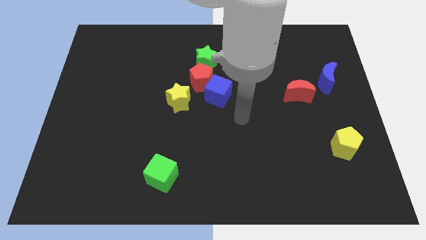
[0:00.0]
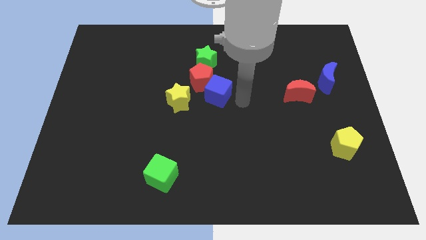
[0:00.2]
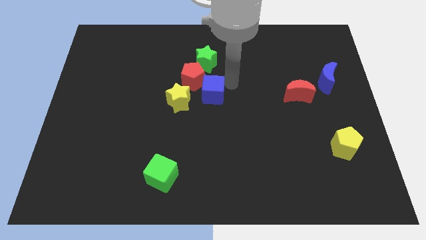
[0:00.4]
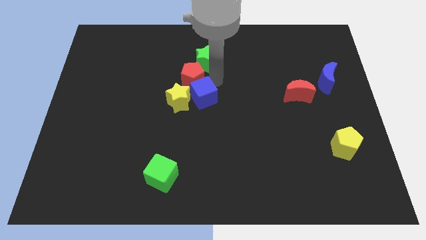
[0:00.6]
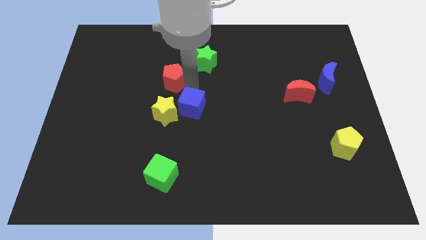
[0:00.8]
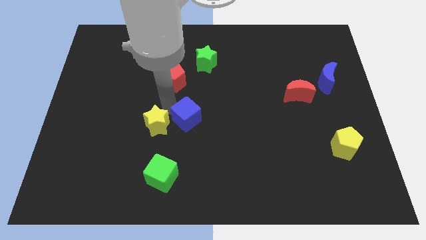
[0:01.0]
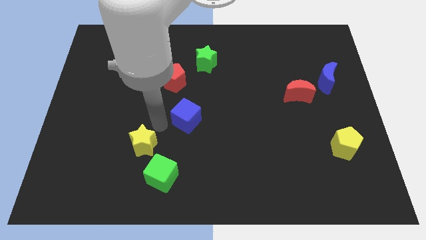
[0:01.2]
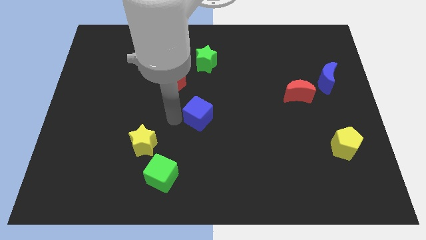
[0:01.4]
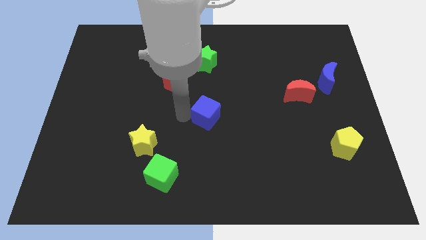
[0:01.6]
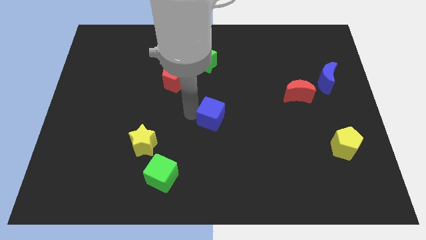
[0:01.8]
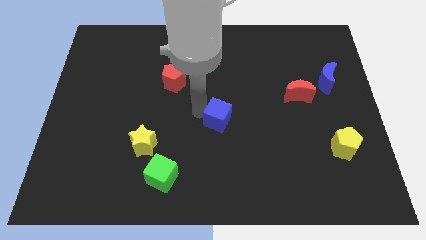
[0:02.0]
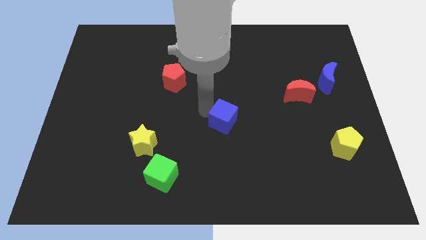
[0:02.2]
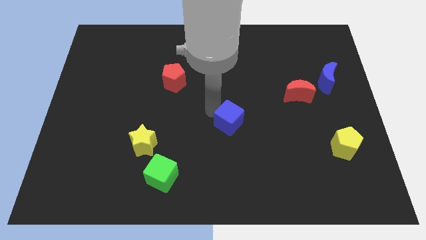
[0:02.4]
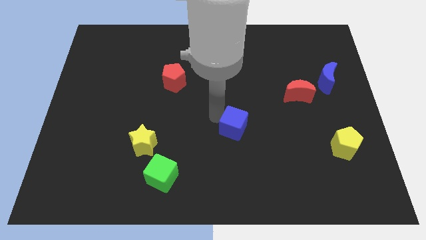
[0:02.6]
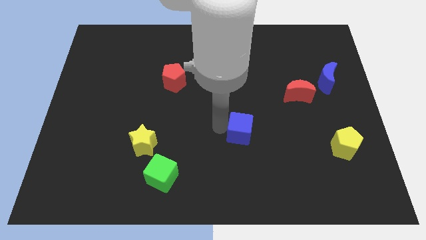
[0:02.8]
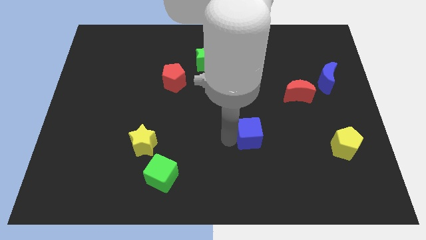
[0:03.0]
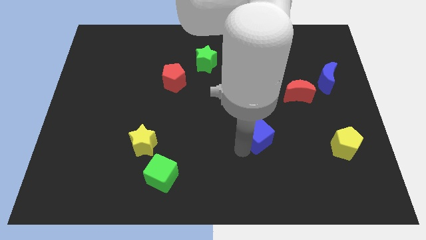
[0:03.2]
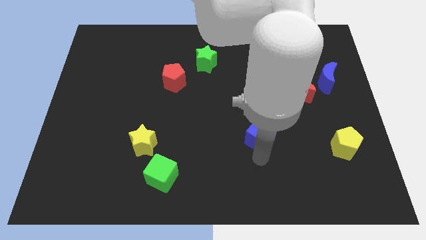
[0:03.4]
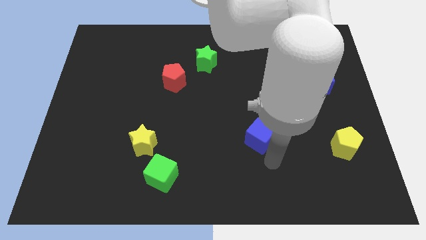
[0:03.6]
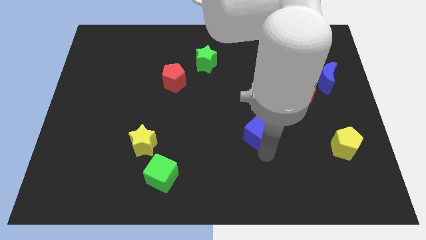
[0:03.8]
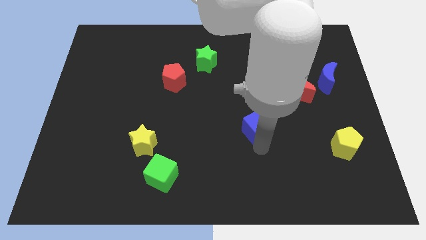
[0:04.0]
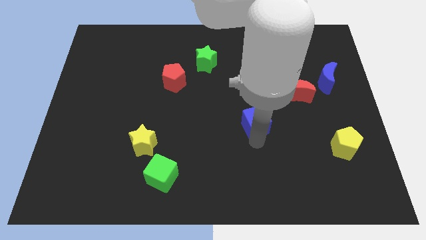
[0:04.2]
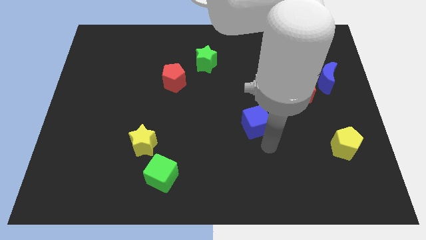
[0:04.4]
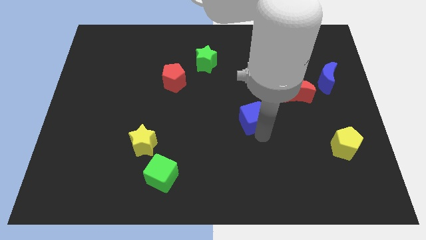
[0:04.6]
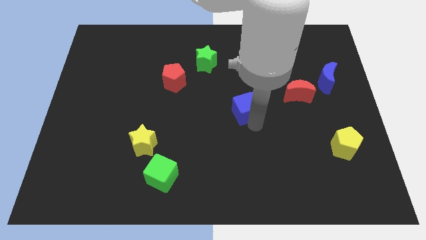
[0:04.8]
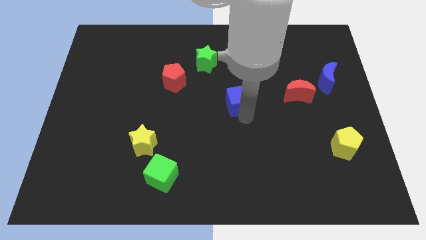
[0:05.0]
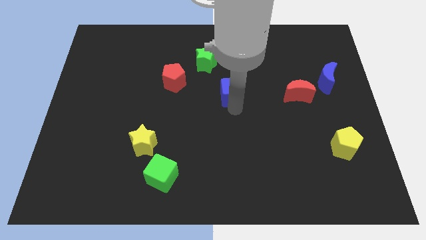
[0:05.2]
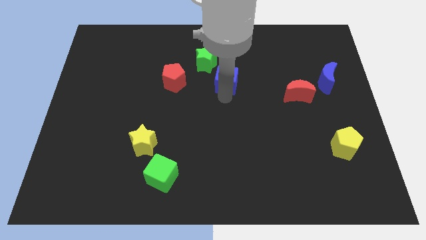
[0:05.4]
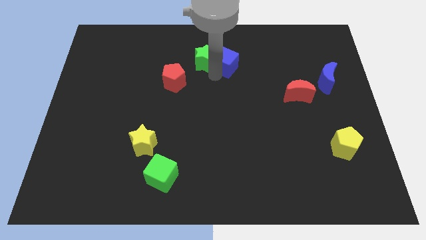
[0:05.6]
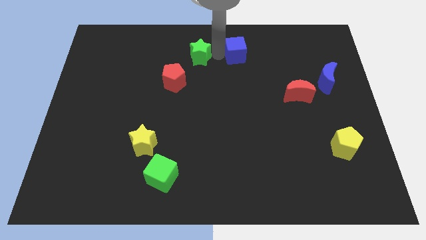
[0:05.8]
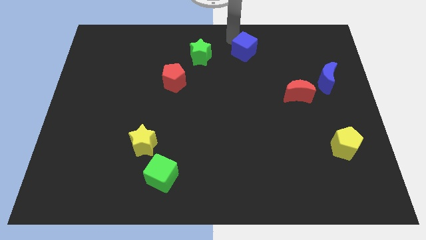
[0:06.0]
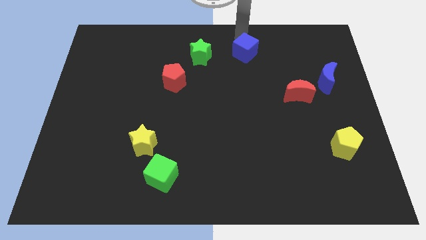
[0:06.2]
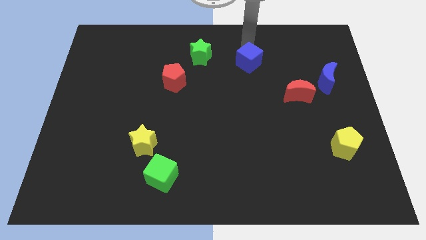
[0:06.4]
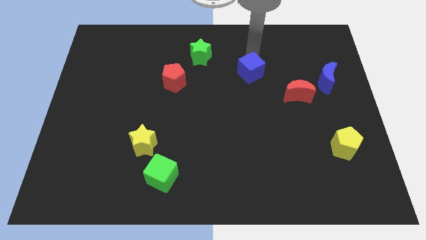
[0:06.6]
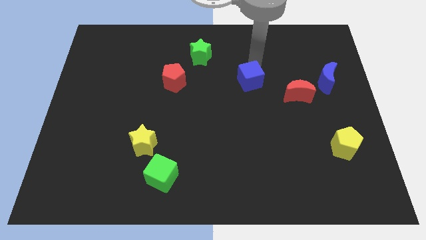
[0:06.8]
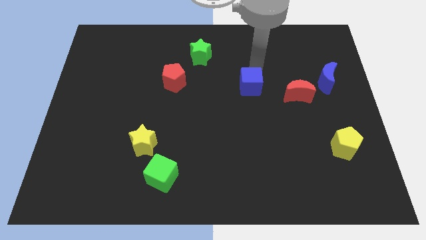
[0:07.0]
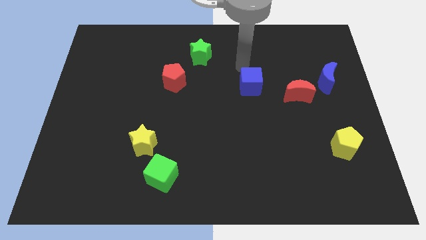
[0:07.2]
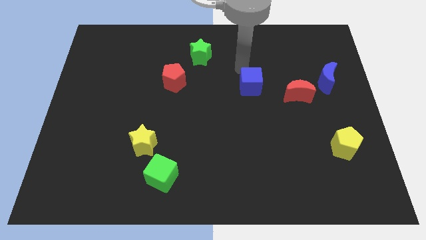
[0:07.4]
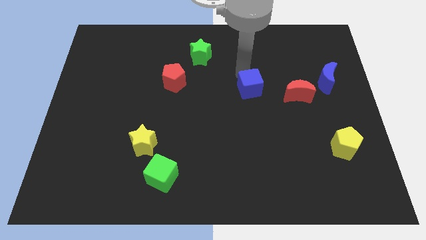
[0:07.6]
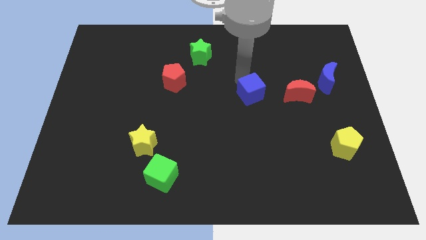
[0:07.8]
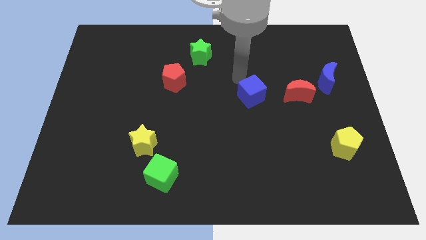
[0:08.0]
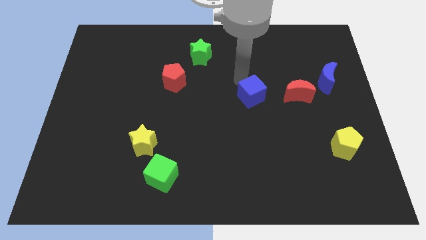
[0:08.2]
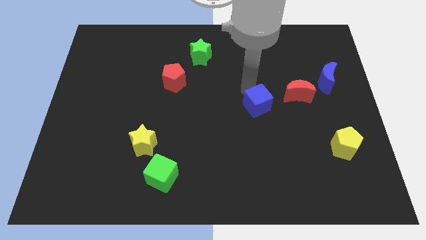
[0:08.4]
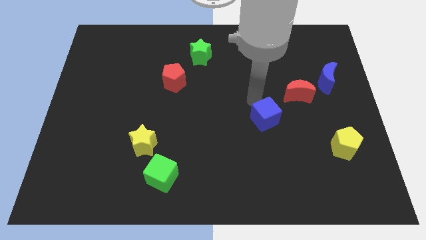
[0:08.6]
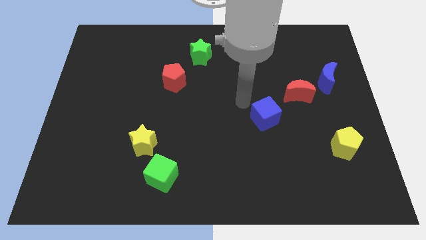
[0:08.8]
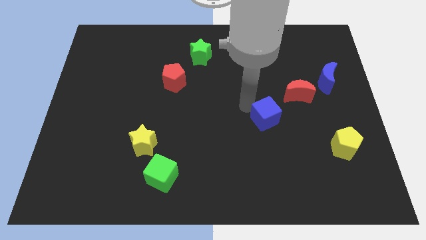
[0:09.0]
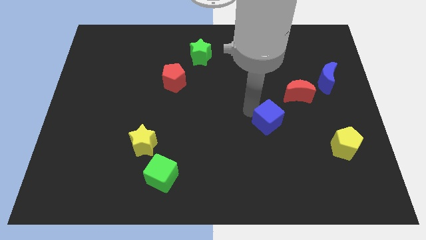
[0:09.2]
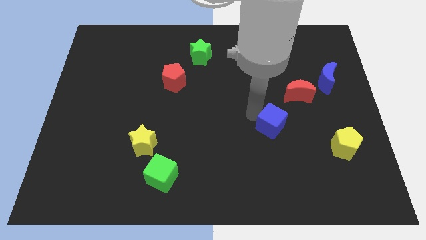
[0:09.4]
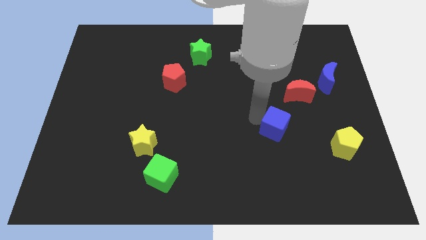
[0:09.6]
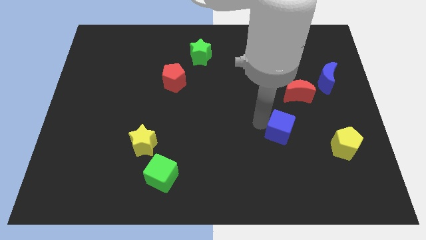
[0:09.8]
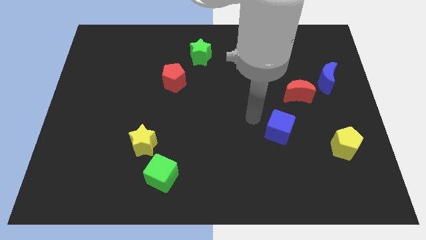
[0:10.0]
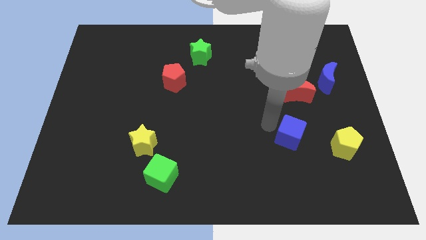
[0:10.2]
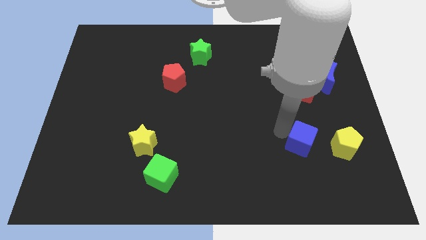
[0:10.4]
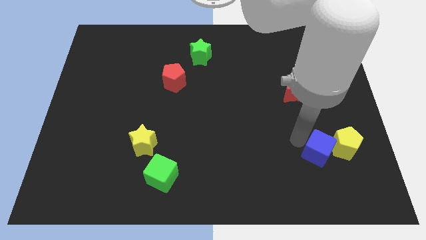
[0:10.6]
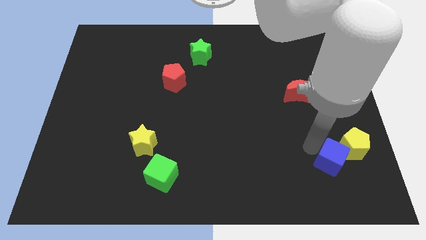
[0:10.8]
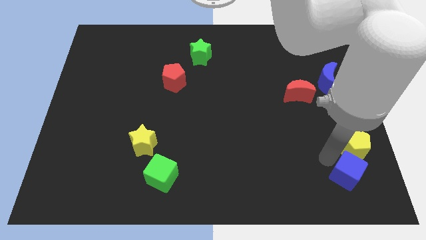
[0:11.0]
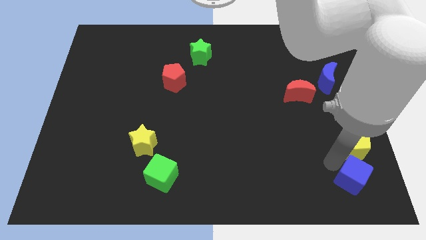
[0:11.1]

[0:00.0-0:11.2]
slide the blue cube to the bottom right of the board

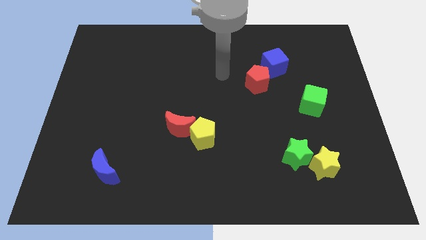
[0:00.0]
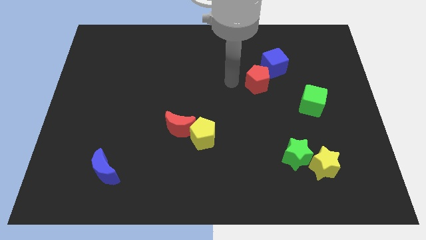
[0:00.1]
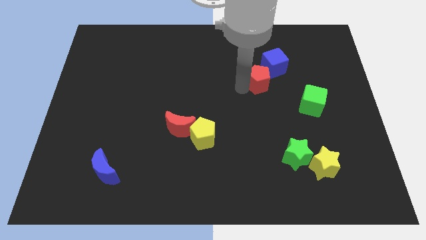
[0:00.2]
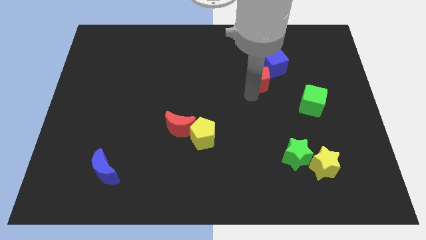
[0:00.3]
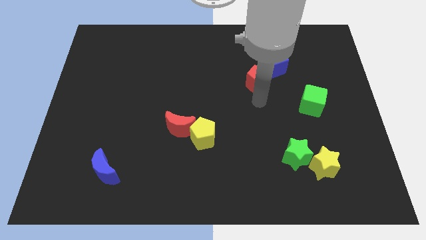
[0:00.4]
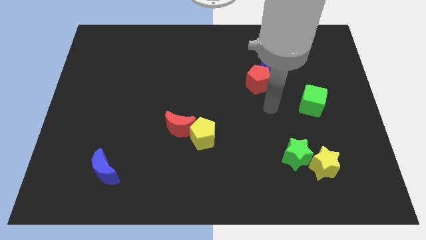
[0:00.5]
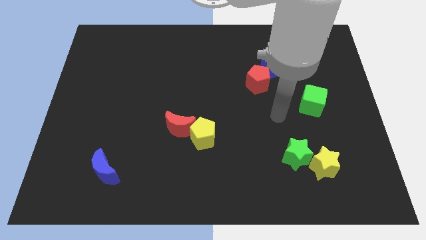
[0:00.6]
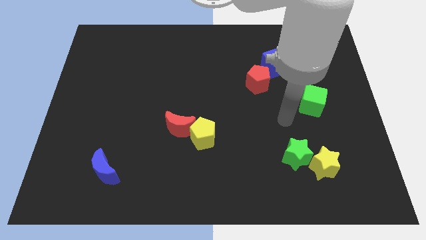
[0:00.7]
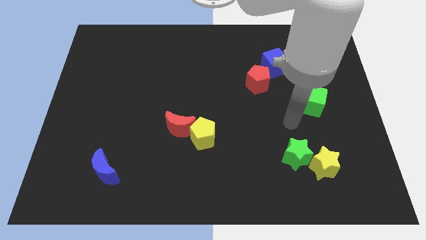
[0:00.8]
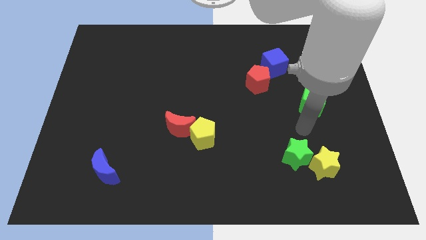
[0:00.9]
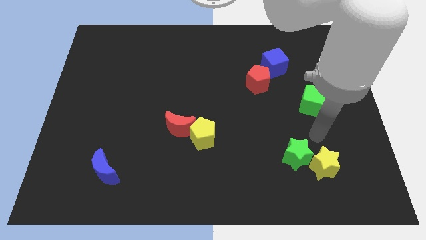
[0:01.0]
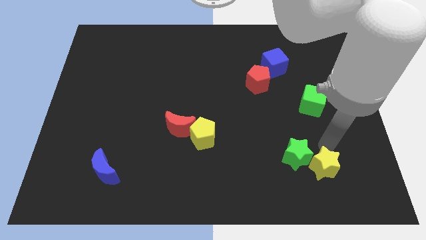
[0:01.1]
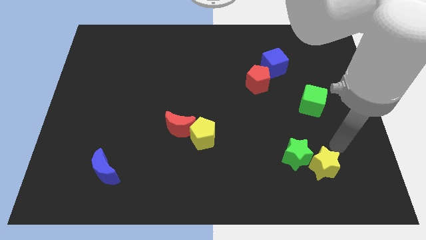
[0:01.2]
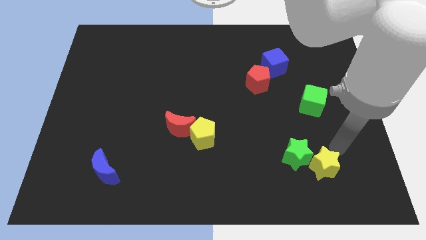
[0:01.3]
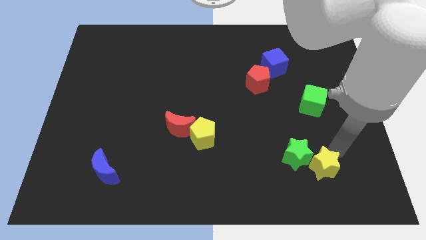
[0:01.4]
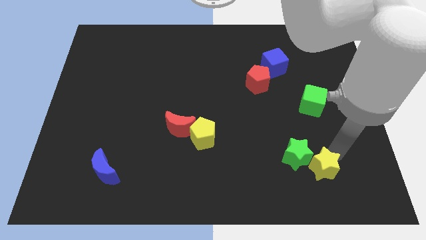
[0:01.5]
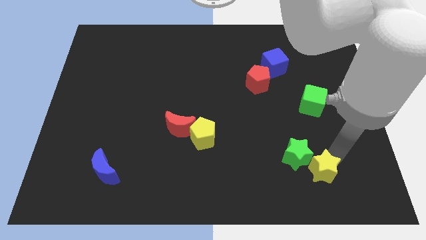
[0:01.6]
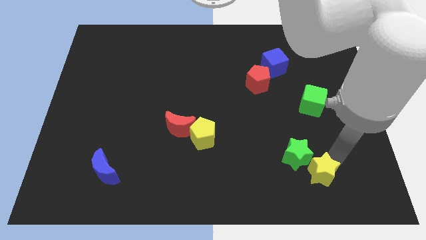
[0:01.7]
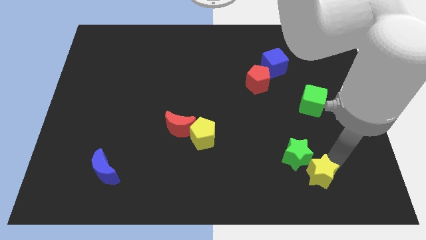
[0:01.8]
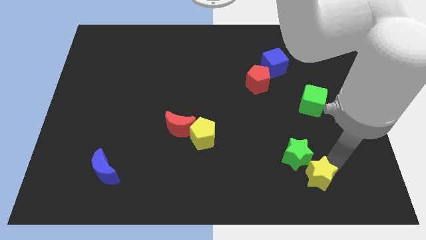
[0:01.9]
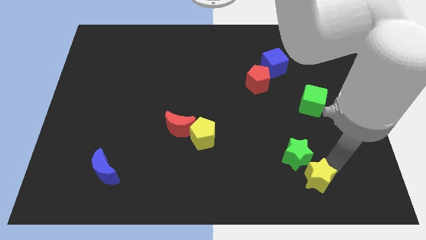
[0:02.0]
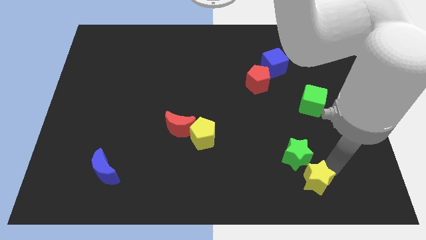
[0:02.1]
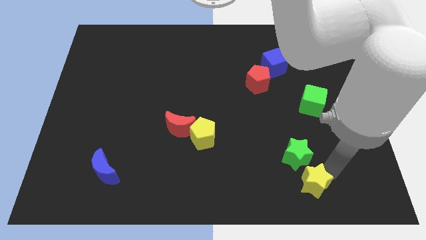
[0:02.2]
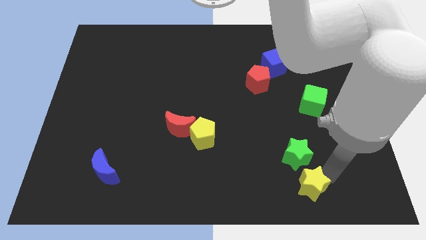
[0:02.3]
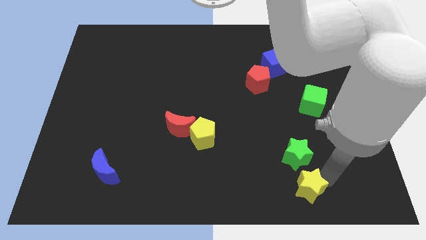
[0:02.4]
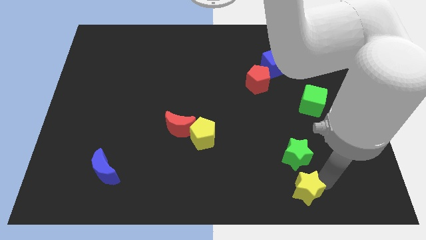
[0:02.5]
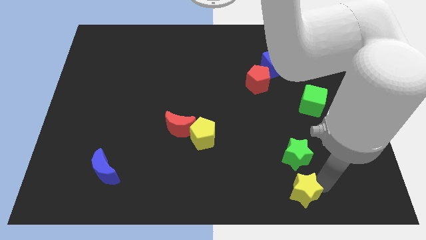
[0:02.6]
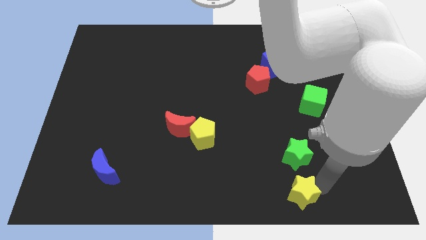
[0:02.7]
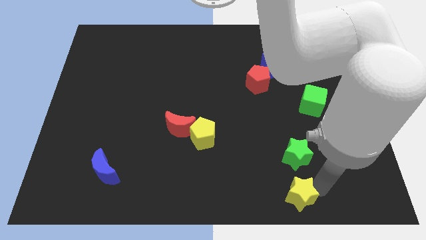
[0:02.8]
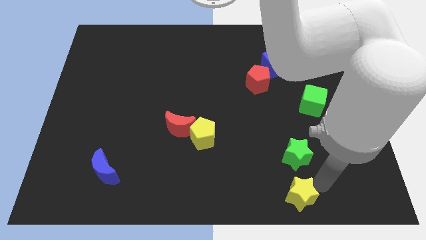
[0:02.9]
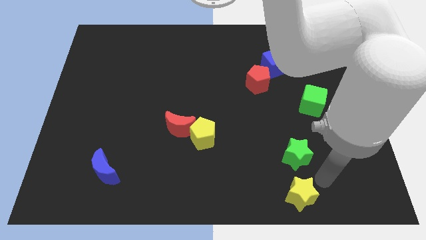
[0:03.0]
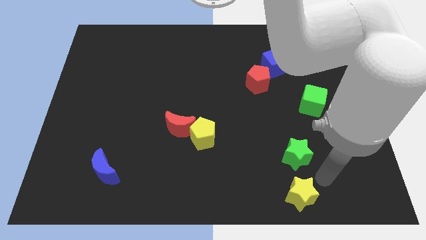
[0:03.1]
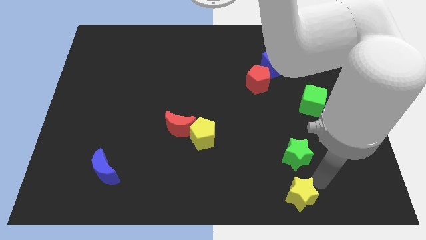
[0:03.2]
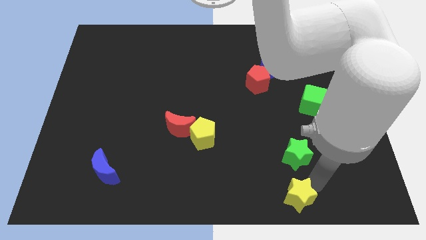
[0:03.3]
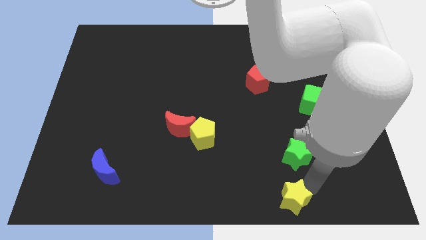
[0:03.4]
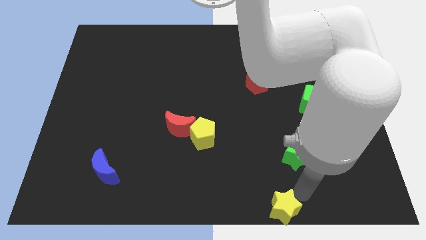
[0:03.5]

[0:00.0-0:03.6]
push the yellow star to the bottom side
